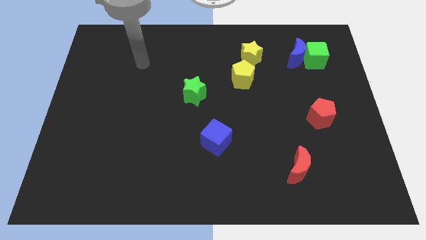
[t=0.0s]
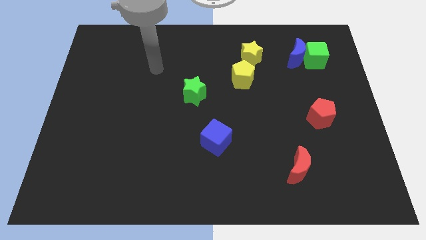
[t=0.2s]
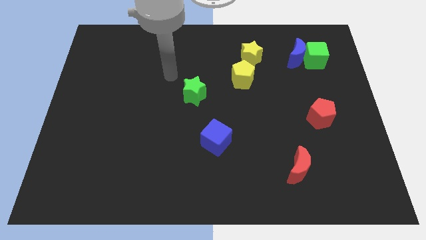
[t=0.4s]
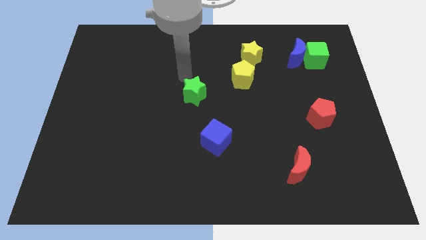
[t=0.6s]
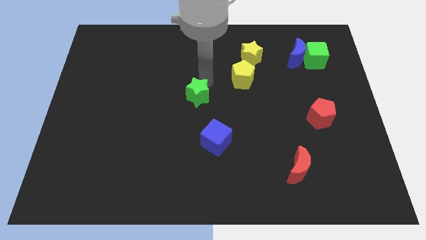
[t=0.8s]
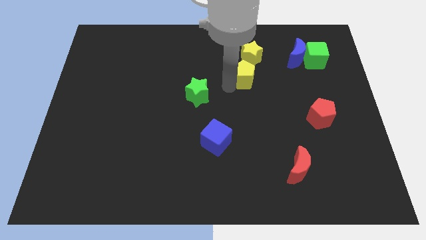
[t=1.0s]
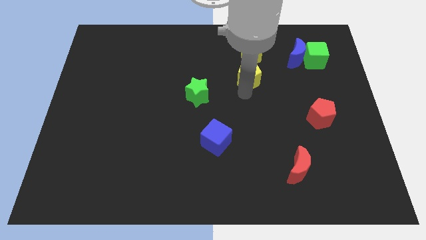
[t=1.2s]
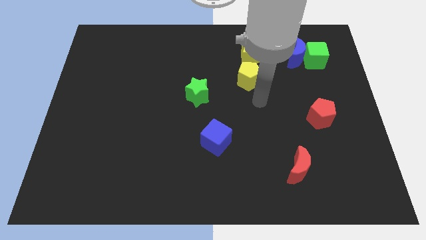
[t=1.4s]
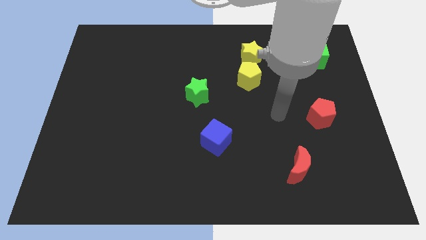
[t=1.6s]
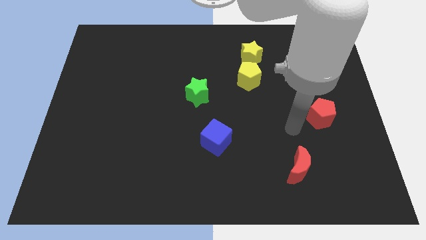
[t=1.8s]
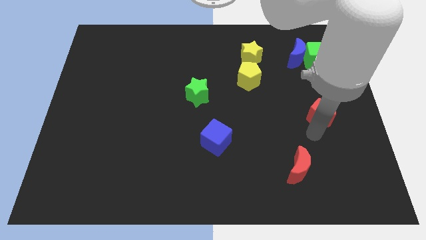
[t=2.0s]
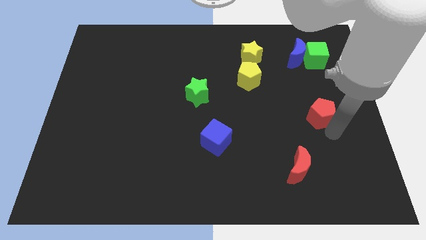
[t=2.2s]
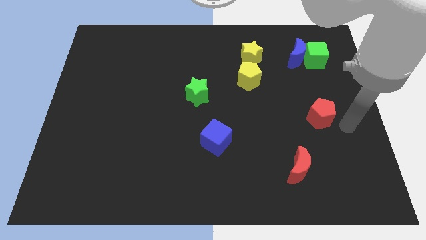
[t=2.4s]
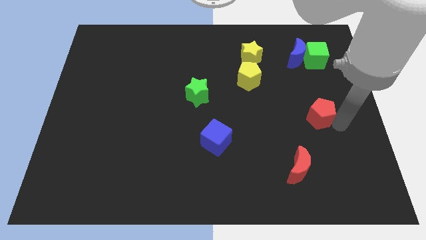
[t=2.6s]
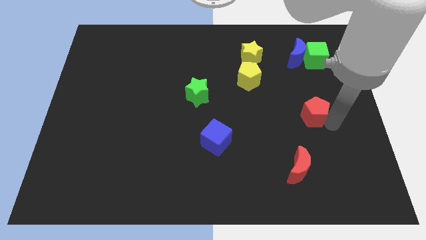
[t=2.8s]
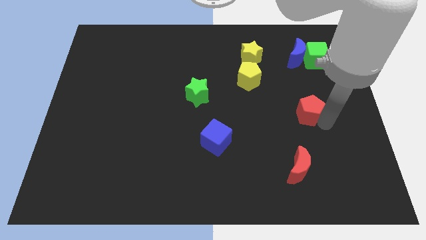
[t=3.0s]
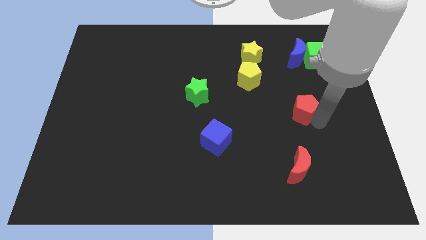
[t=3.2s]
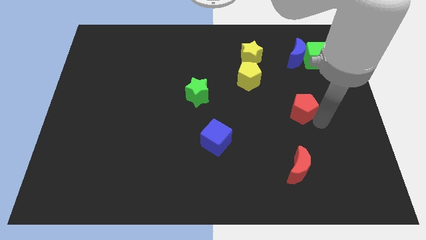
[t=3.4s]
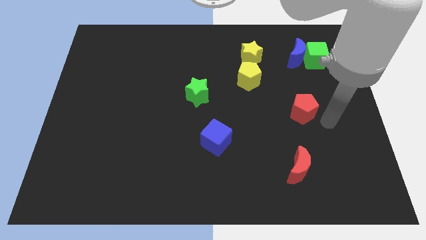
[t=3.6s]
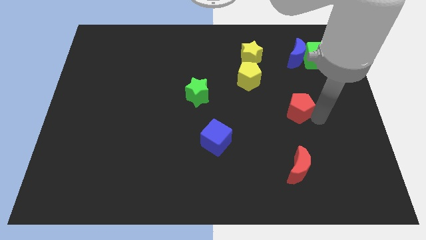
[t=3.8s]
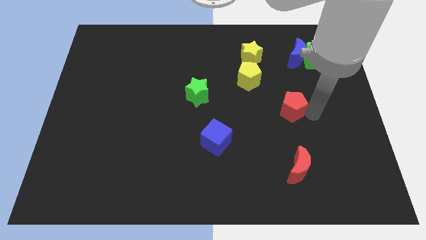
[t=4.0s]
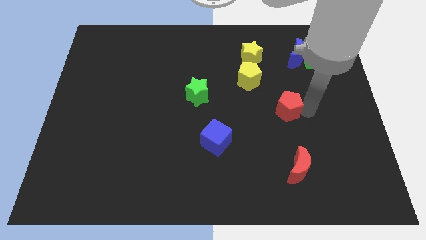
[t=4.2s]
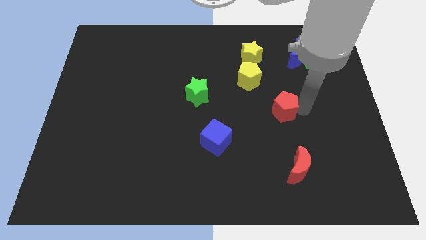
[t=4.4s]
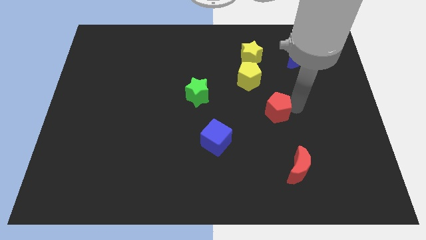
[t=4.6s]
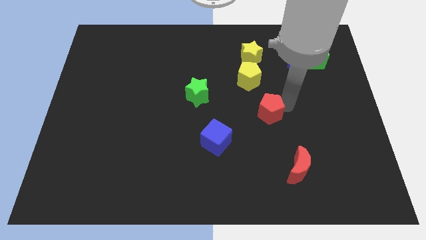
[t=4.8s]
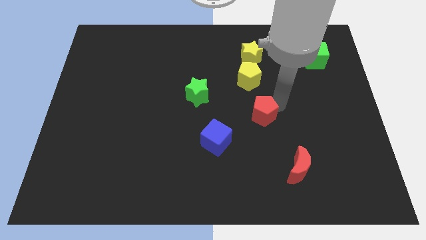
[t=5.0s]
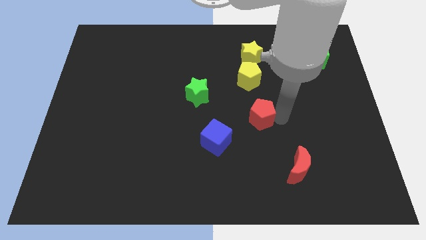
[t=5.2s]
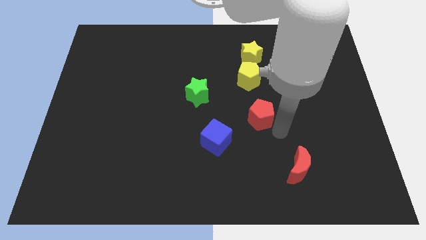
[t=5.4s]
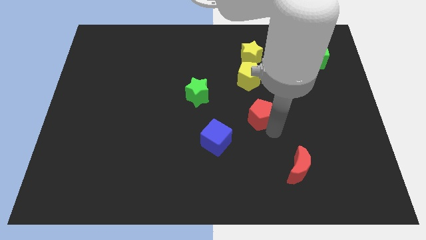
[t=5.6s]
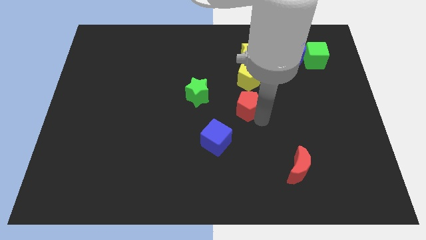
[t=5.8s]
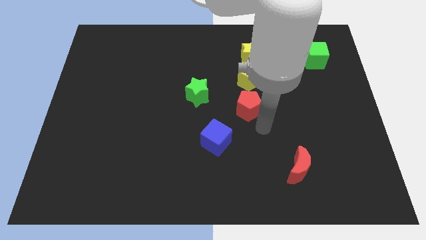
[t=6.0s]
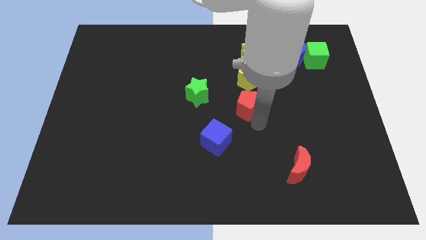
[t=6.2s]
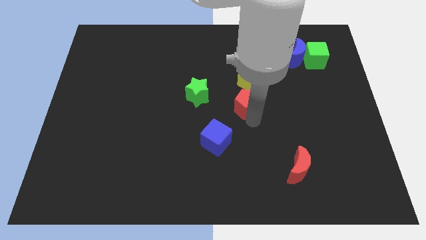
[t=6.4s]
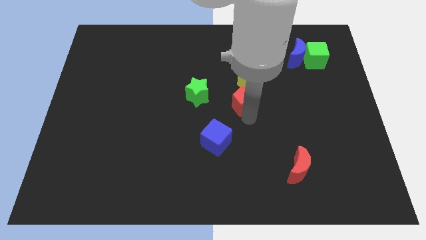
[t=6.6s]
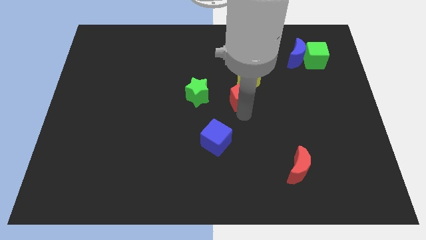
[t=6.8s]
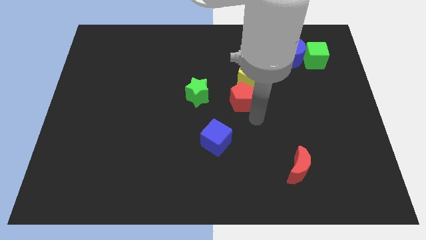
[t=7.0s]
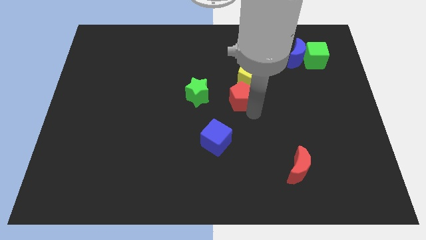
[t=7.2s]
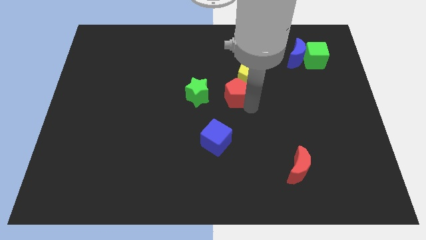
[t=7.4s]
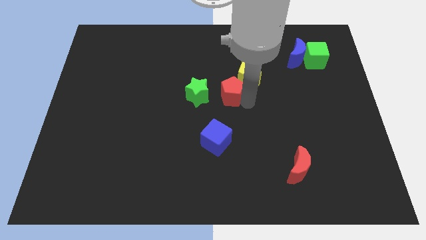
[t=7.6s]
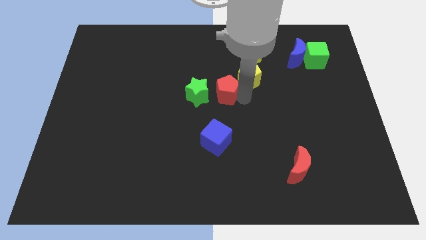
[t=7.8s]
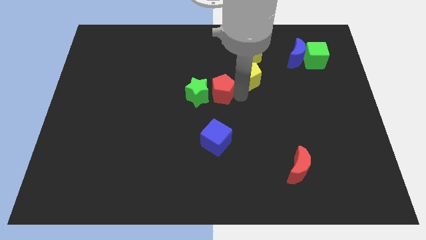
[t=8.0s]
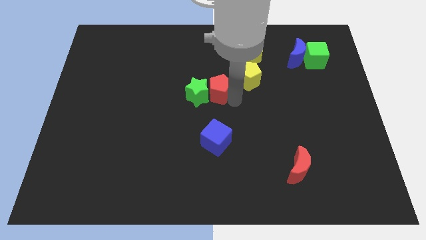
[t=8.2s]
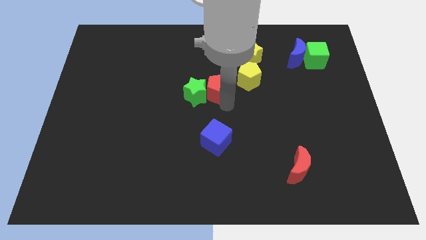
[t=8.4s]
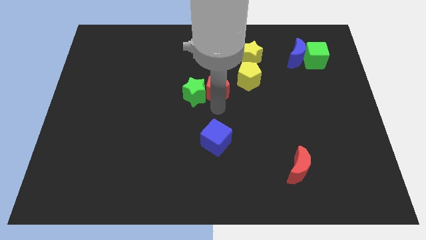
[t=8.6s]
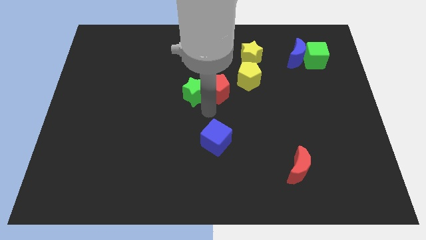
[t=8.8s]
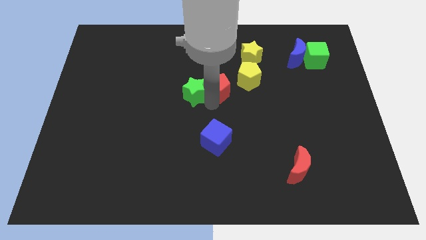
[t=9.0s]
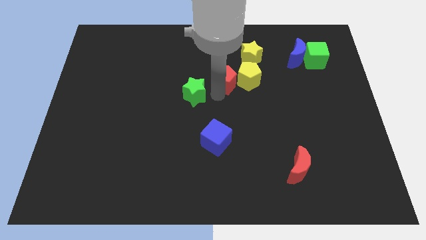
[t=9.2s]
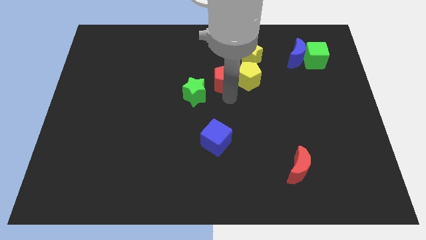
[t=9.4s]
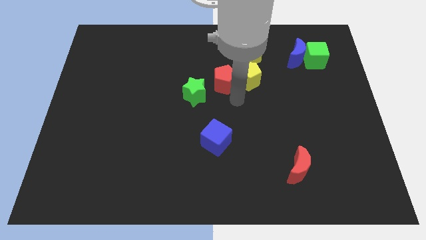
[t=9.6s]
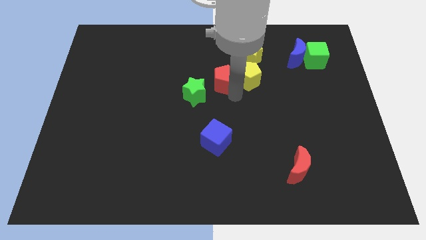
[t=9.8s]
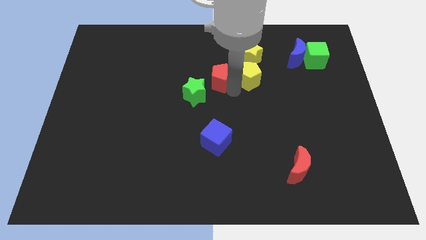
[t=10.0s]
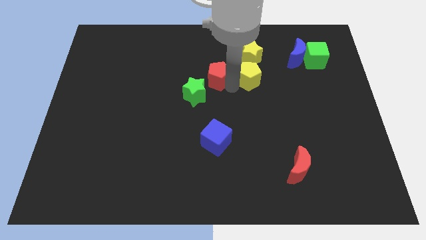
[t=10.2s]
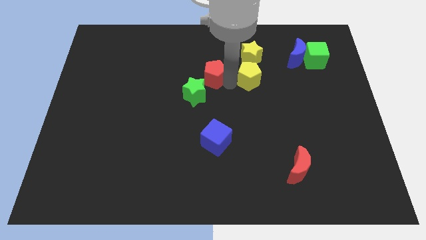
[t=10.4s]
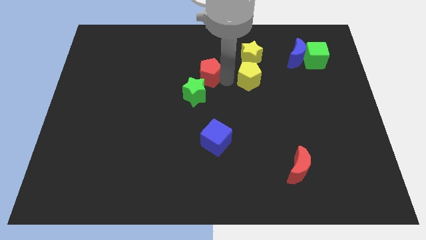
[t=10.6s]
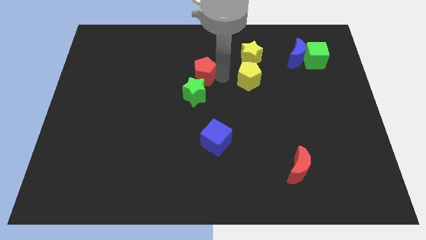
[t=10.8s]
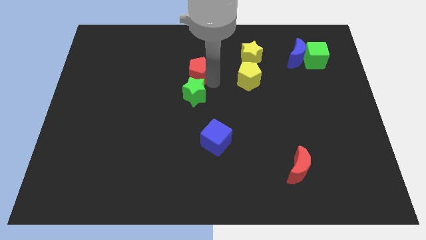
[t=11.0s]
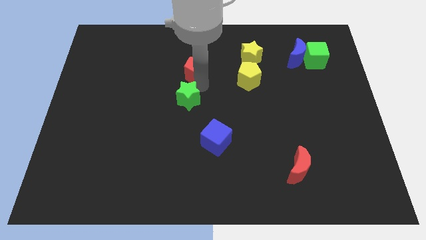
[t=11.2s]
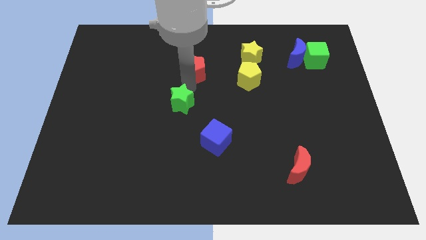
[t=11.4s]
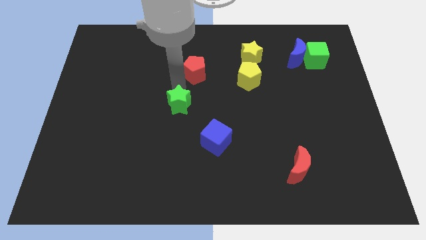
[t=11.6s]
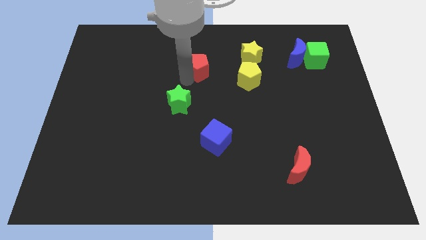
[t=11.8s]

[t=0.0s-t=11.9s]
slide the red pentagon to the left side of the yellow star

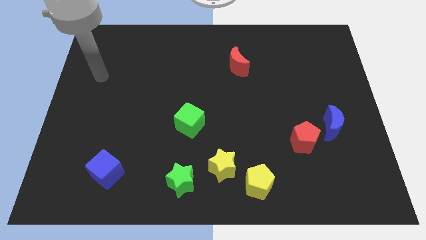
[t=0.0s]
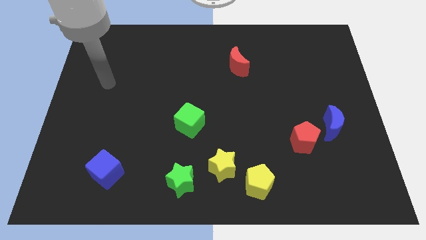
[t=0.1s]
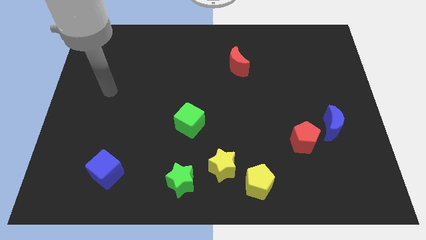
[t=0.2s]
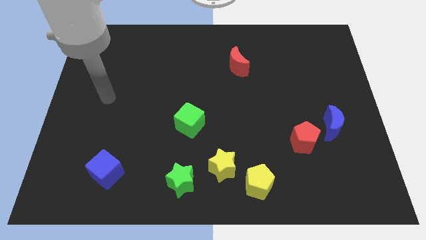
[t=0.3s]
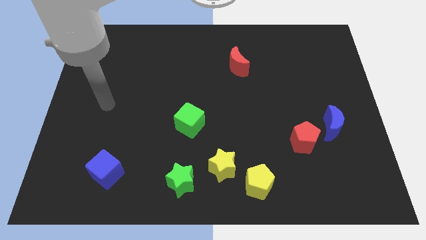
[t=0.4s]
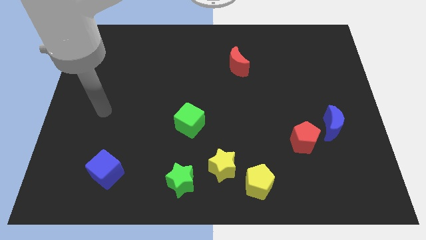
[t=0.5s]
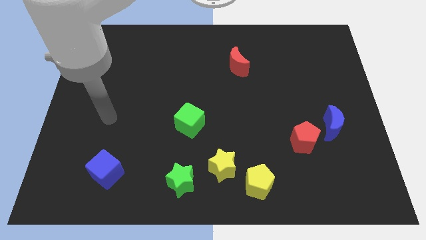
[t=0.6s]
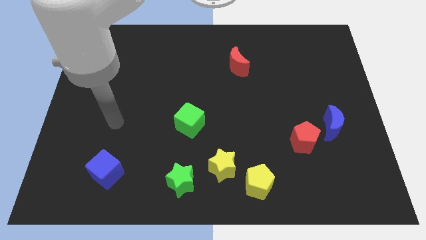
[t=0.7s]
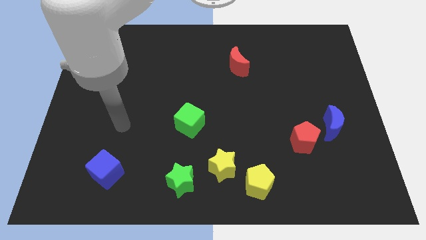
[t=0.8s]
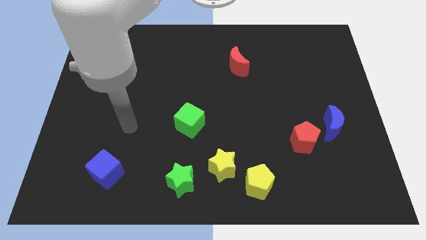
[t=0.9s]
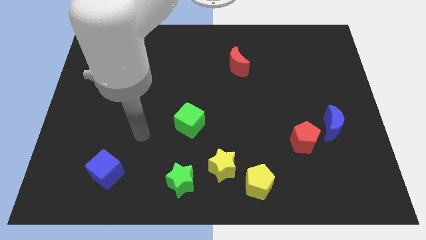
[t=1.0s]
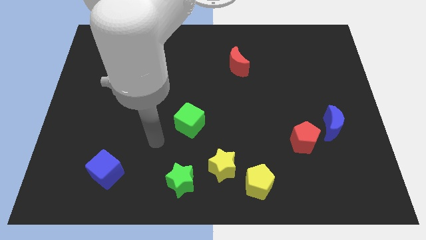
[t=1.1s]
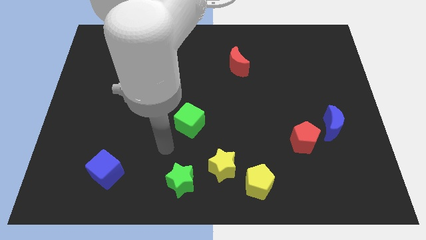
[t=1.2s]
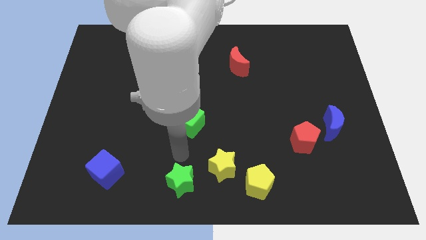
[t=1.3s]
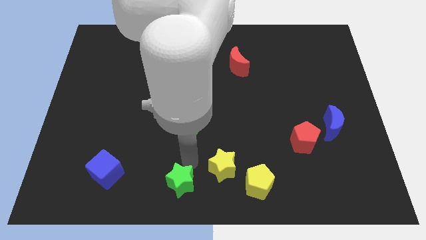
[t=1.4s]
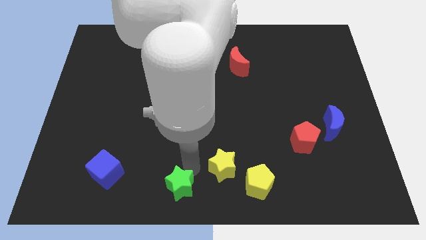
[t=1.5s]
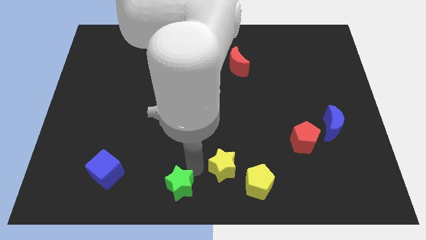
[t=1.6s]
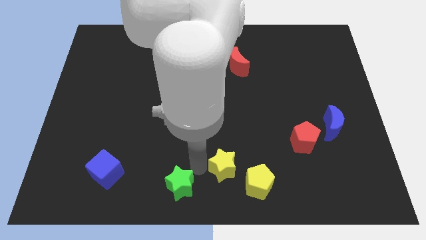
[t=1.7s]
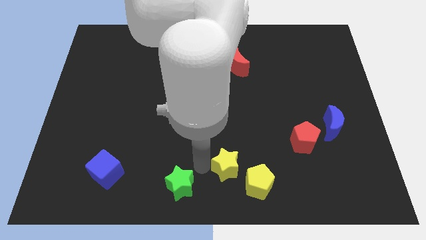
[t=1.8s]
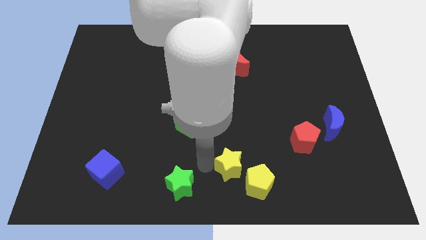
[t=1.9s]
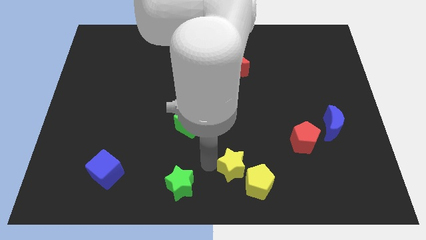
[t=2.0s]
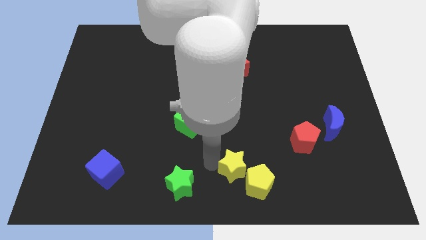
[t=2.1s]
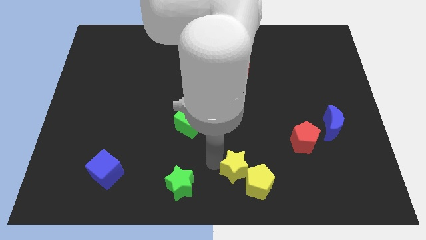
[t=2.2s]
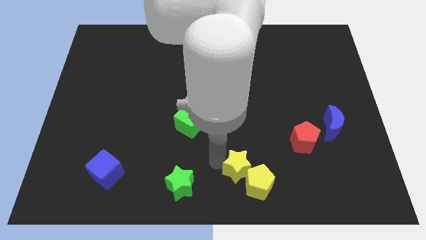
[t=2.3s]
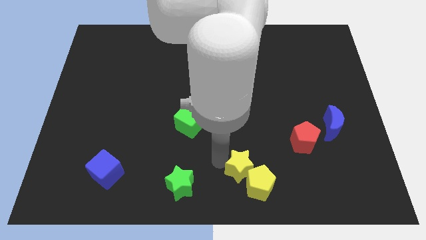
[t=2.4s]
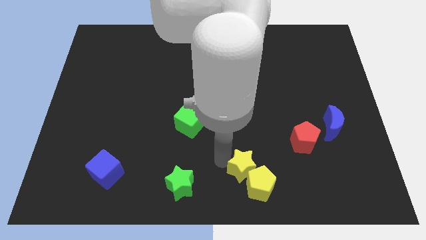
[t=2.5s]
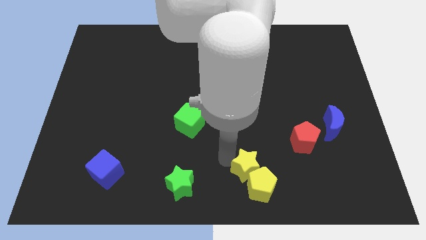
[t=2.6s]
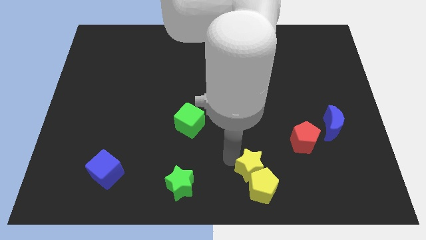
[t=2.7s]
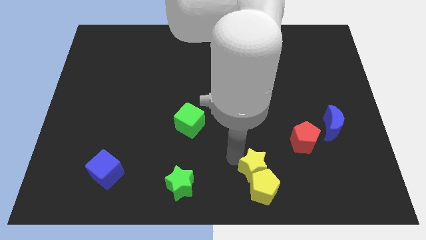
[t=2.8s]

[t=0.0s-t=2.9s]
put the yellow star to the top right of the yellow pentagon
